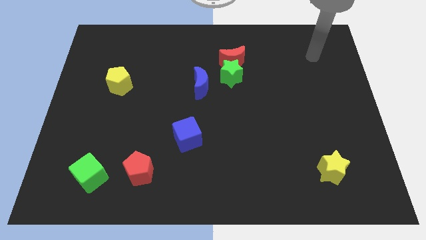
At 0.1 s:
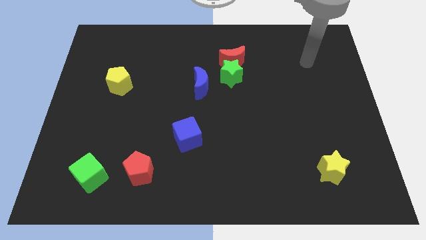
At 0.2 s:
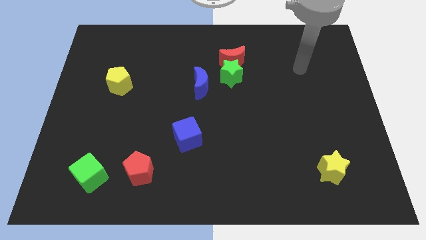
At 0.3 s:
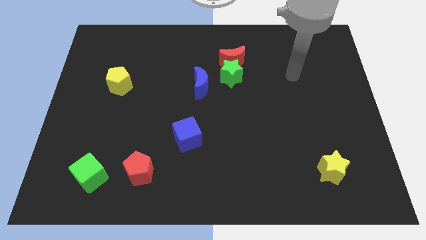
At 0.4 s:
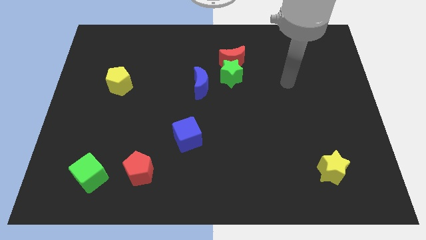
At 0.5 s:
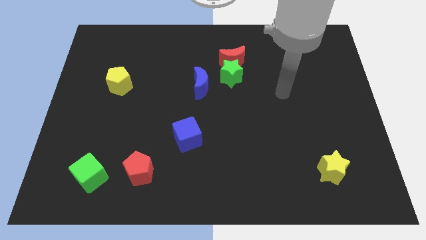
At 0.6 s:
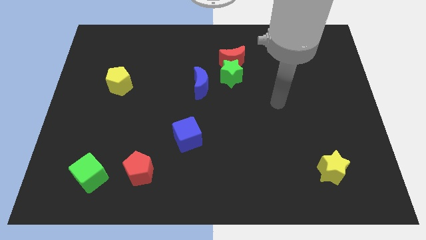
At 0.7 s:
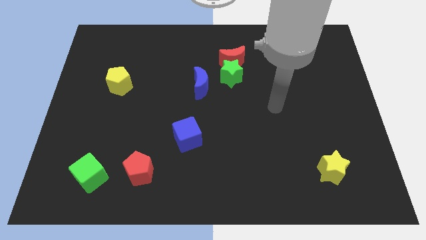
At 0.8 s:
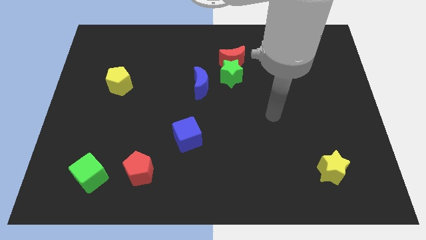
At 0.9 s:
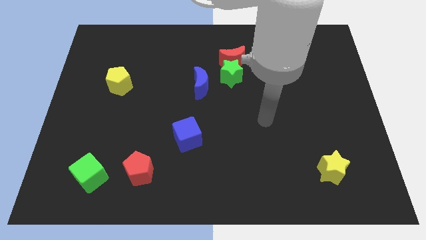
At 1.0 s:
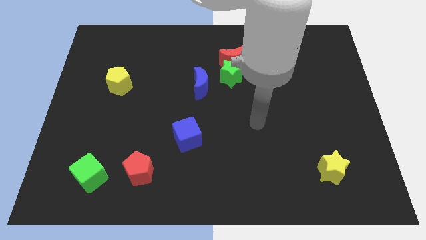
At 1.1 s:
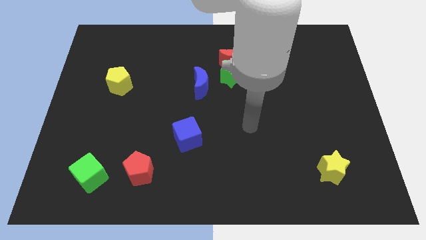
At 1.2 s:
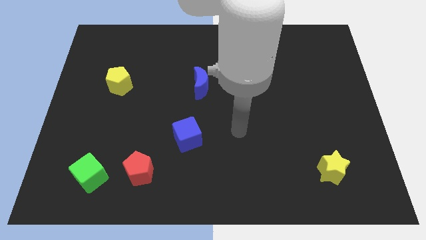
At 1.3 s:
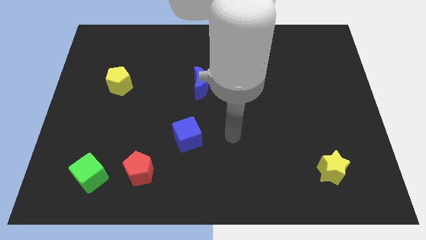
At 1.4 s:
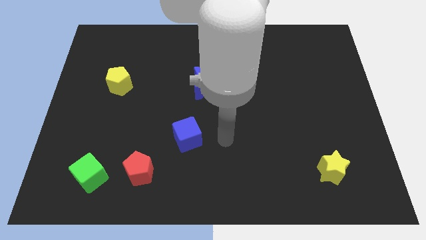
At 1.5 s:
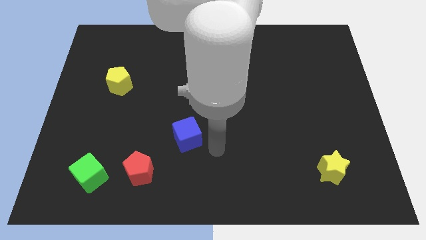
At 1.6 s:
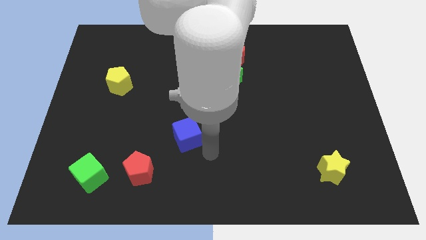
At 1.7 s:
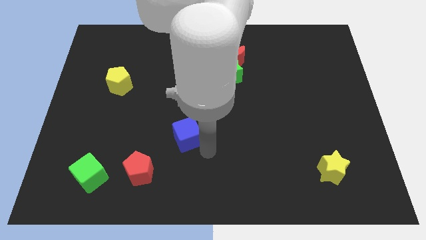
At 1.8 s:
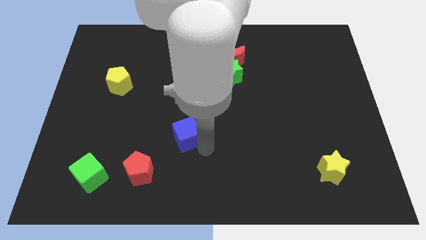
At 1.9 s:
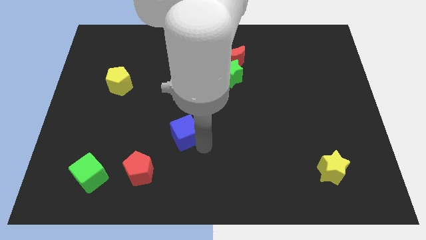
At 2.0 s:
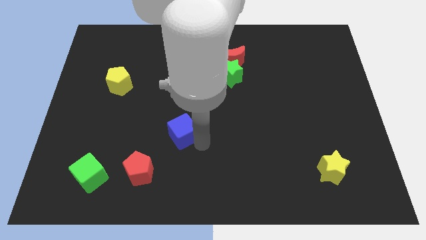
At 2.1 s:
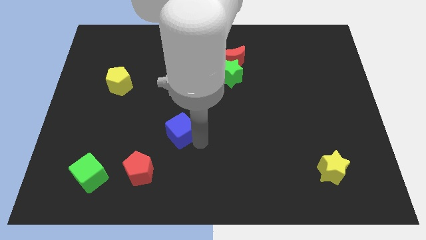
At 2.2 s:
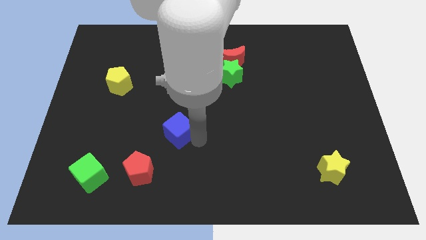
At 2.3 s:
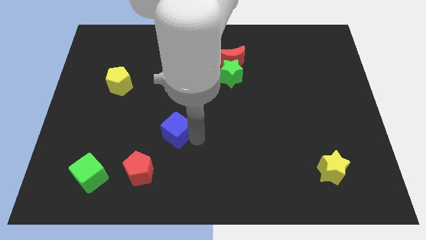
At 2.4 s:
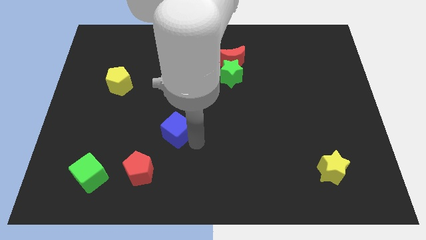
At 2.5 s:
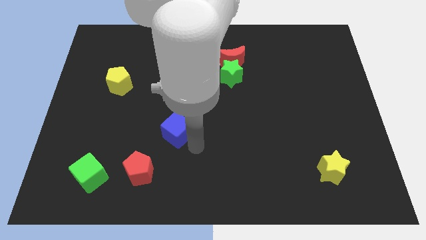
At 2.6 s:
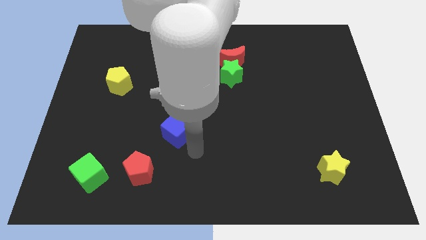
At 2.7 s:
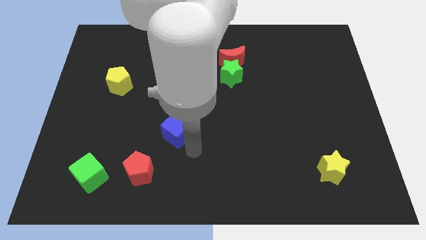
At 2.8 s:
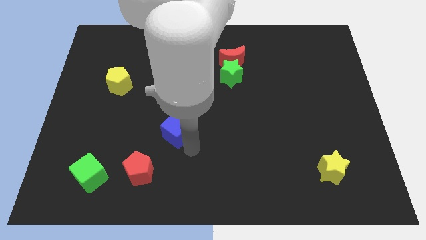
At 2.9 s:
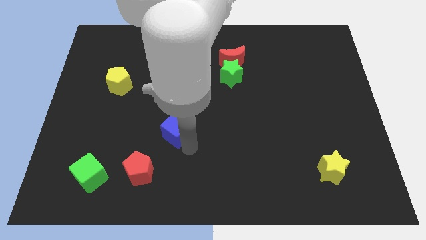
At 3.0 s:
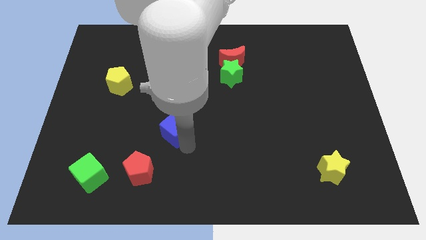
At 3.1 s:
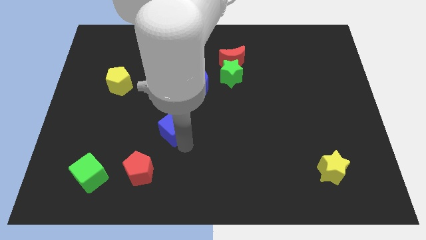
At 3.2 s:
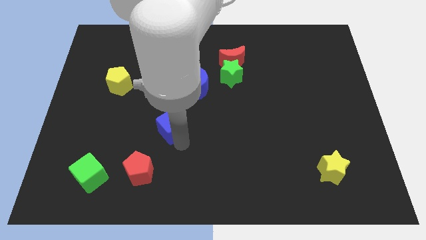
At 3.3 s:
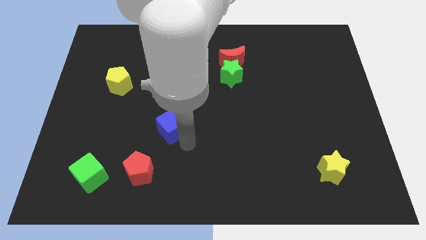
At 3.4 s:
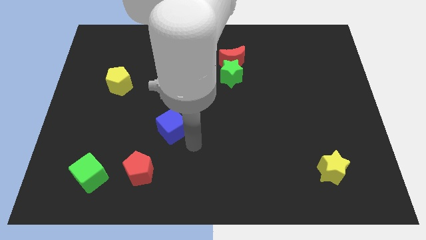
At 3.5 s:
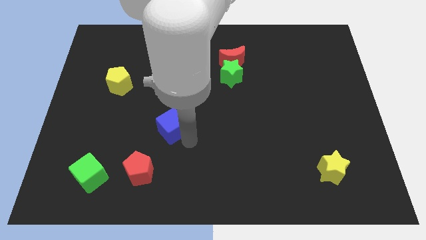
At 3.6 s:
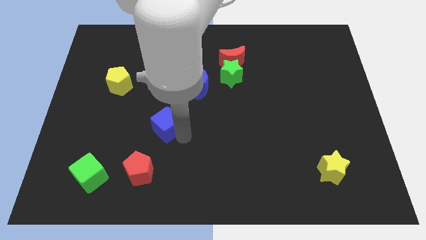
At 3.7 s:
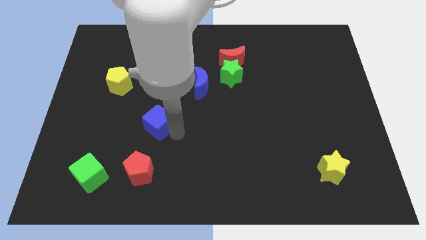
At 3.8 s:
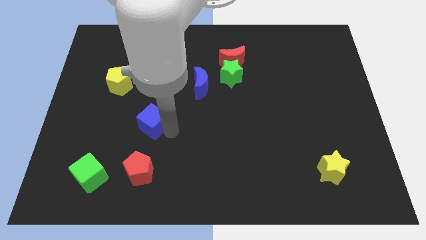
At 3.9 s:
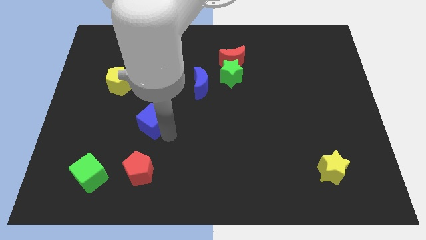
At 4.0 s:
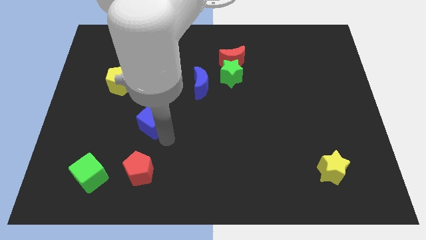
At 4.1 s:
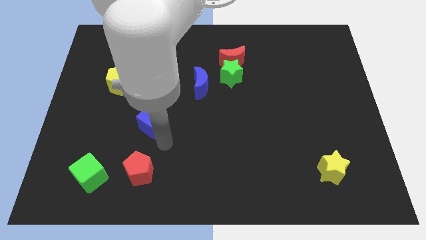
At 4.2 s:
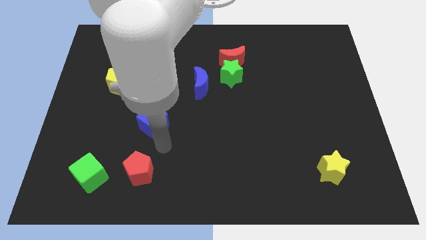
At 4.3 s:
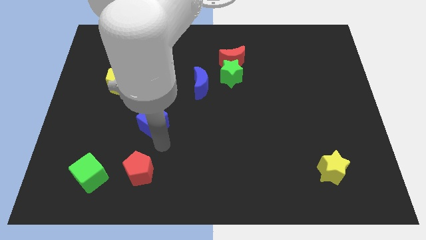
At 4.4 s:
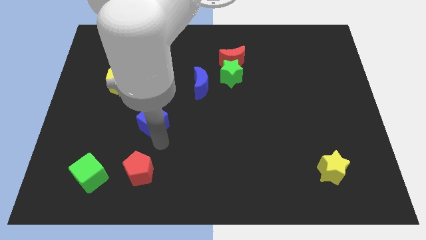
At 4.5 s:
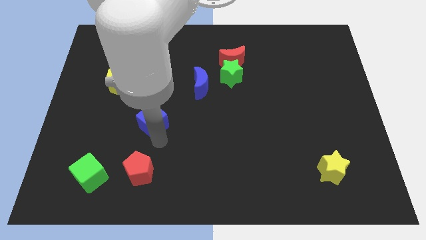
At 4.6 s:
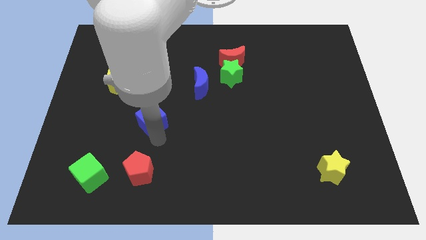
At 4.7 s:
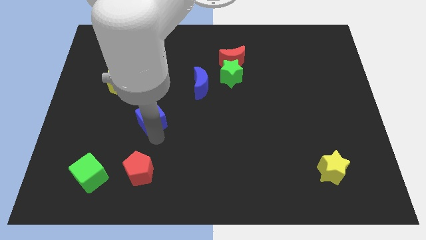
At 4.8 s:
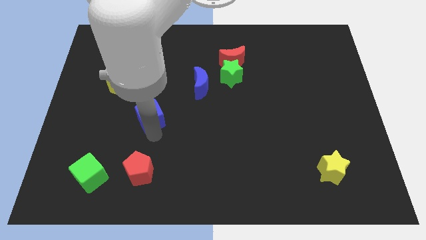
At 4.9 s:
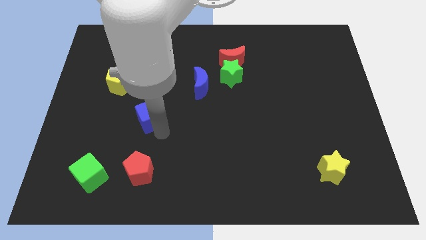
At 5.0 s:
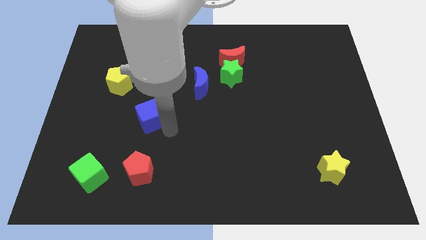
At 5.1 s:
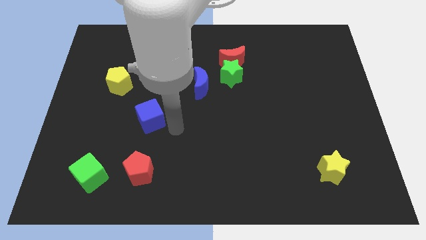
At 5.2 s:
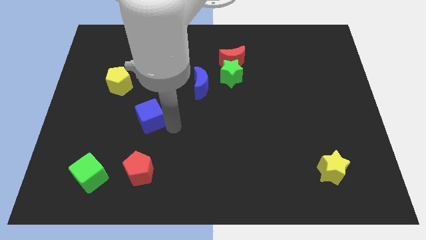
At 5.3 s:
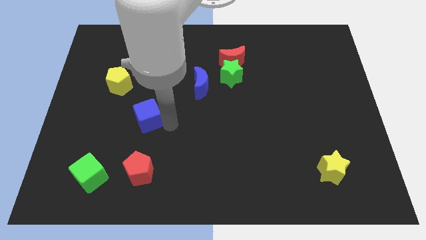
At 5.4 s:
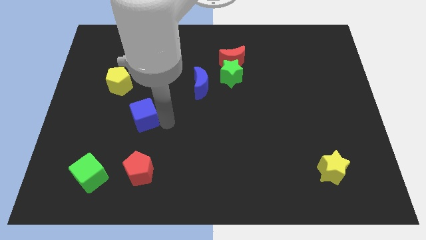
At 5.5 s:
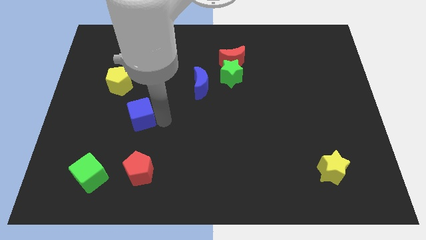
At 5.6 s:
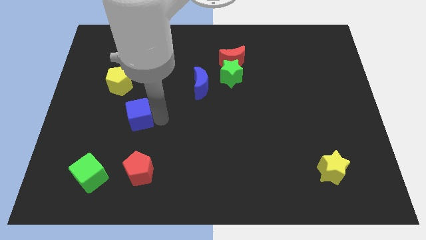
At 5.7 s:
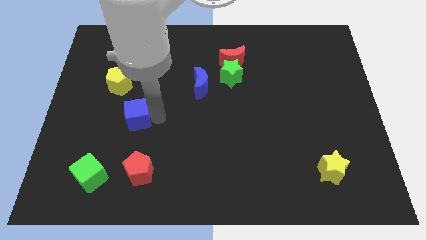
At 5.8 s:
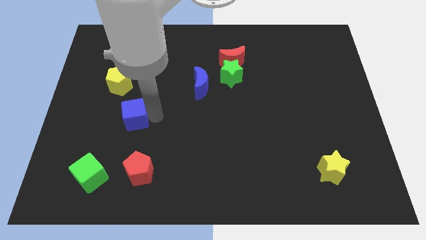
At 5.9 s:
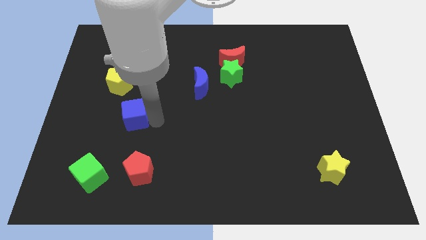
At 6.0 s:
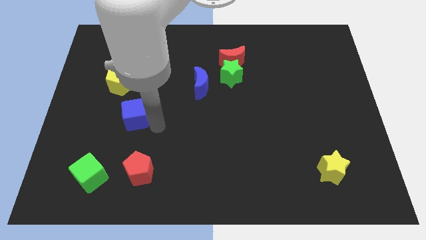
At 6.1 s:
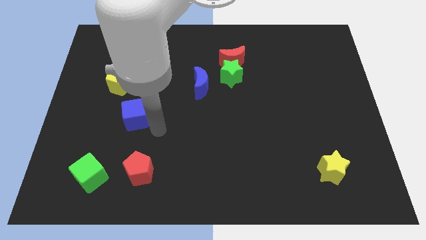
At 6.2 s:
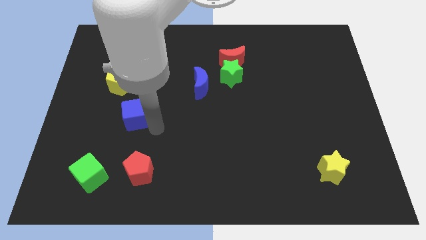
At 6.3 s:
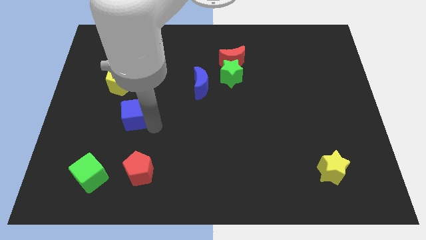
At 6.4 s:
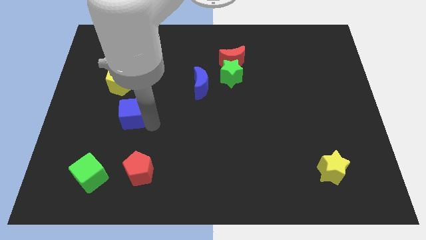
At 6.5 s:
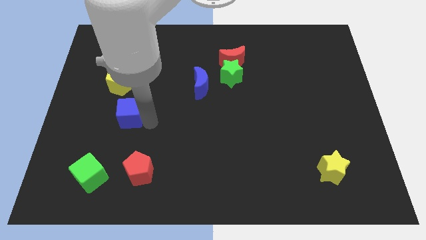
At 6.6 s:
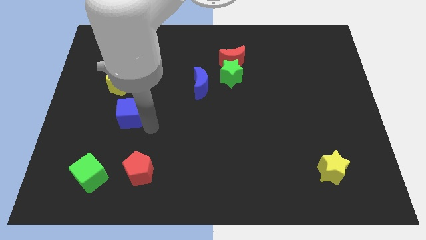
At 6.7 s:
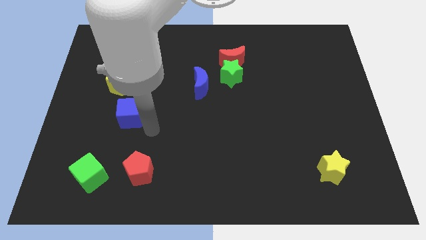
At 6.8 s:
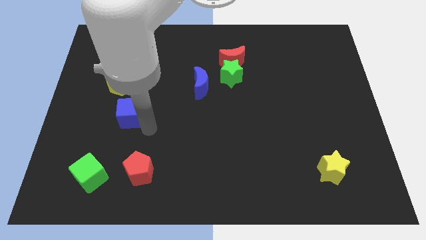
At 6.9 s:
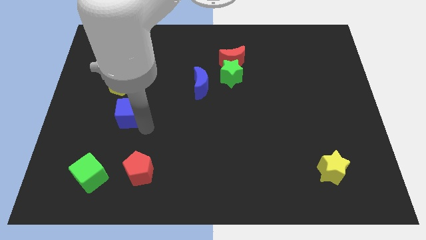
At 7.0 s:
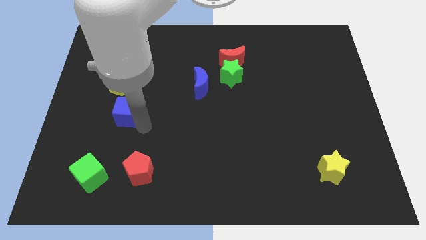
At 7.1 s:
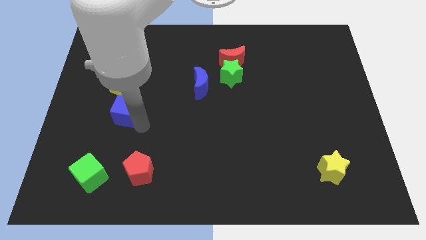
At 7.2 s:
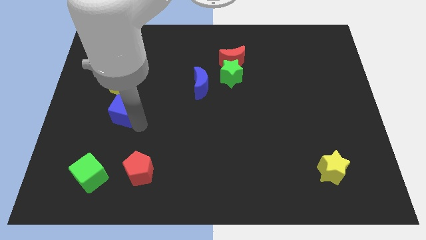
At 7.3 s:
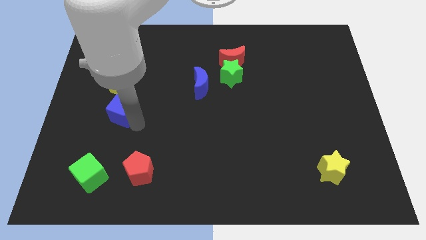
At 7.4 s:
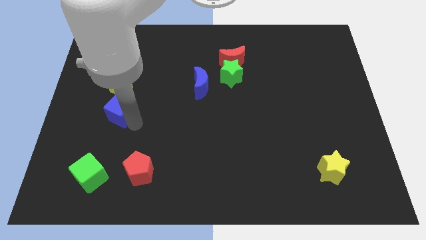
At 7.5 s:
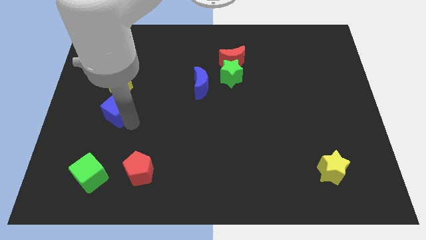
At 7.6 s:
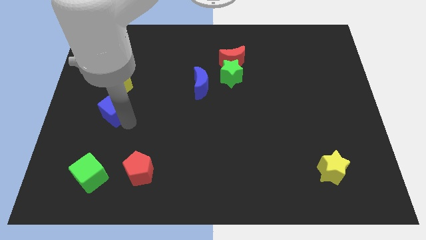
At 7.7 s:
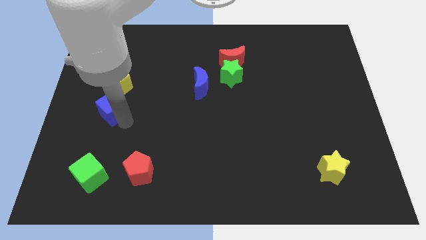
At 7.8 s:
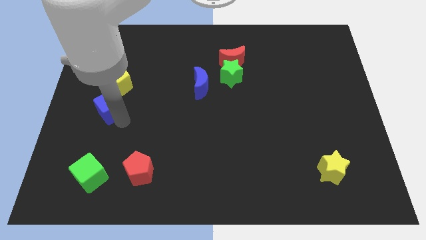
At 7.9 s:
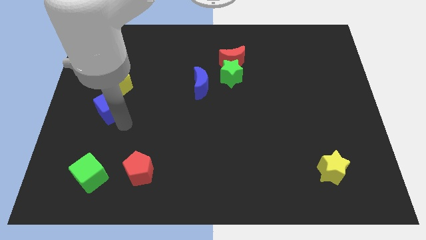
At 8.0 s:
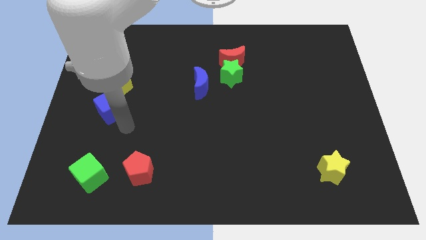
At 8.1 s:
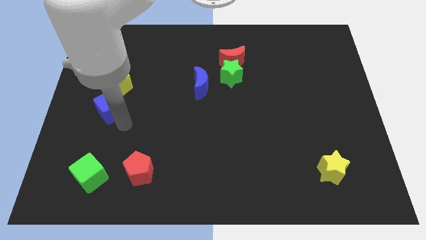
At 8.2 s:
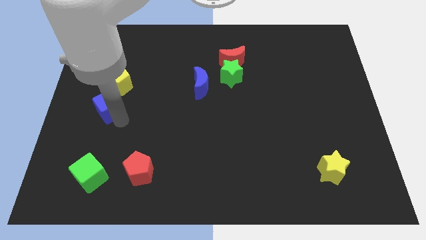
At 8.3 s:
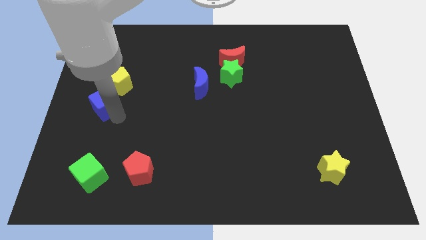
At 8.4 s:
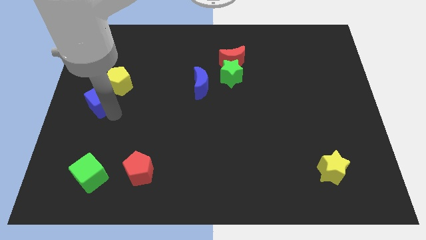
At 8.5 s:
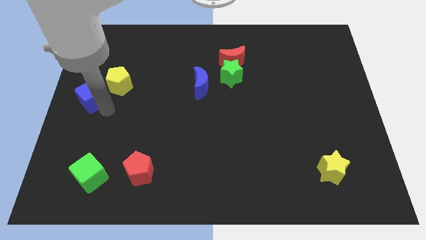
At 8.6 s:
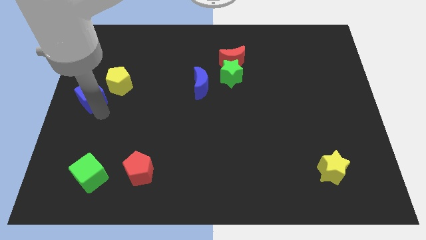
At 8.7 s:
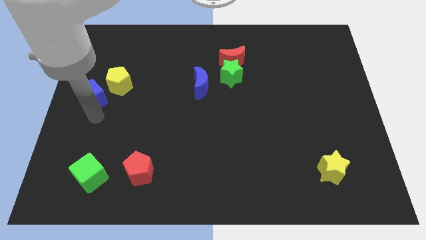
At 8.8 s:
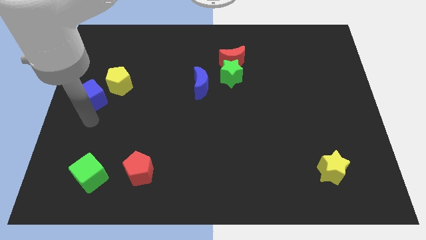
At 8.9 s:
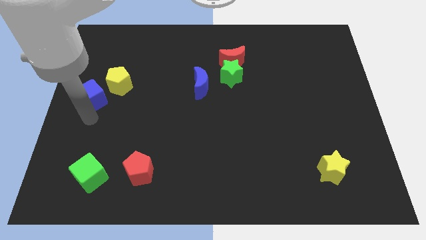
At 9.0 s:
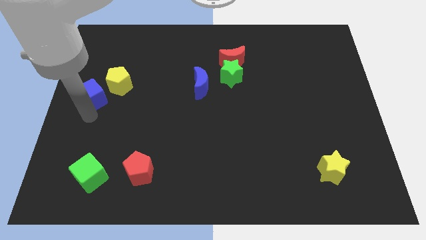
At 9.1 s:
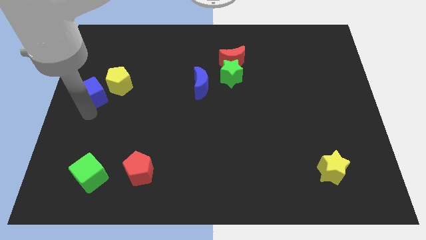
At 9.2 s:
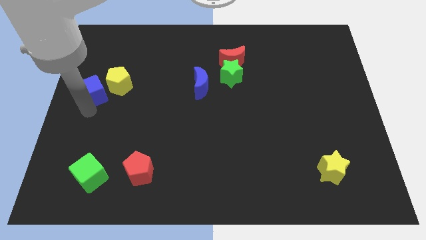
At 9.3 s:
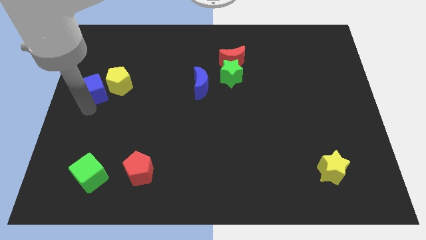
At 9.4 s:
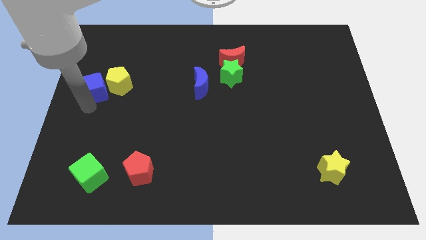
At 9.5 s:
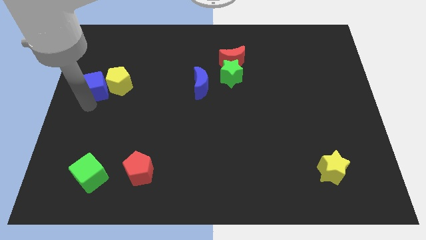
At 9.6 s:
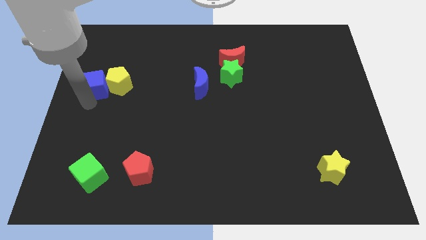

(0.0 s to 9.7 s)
move the blue cube diagonally up and to the left of the yellow pentagon
